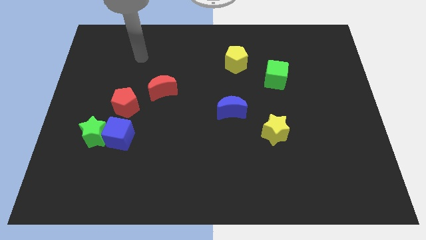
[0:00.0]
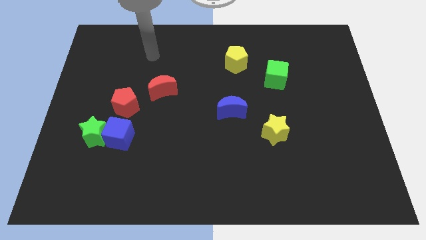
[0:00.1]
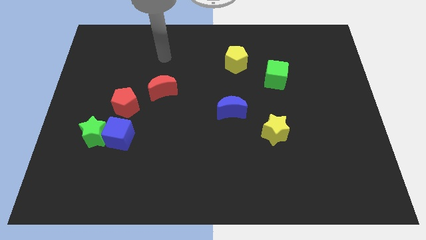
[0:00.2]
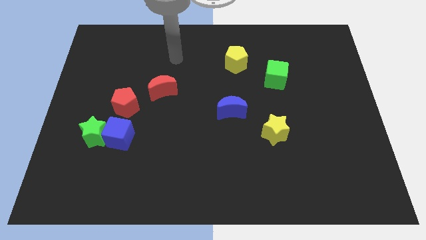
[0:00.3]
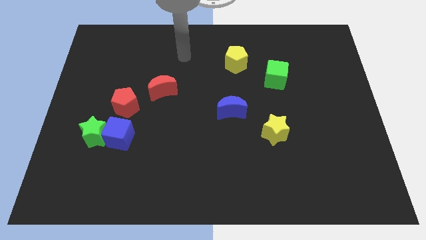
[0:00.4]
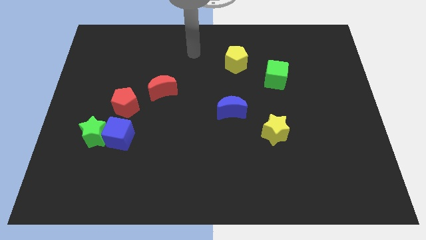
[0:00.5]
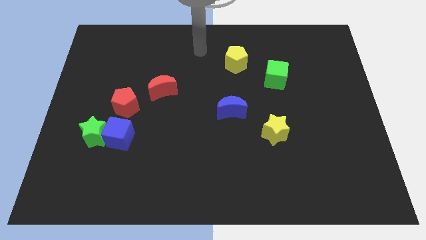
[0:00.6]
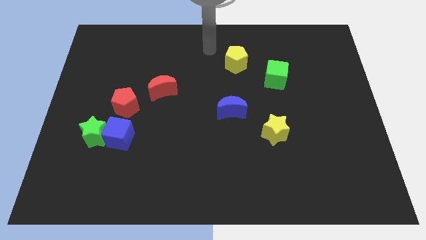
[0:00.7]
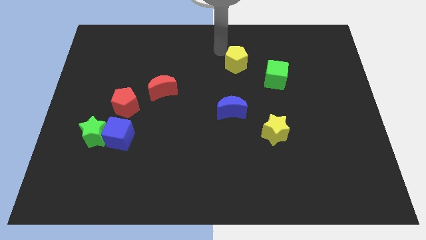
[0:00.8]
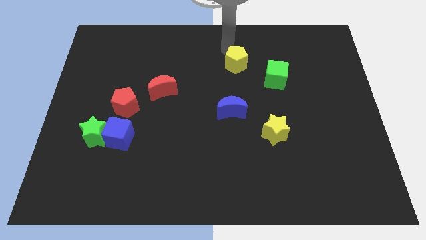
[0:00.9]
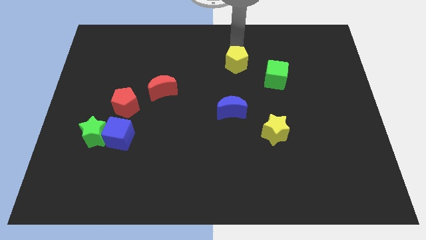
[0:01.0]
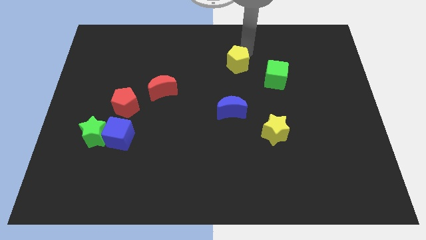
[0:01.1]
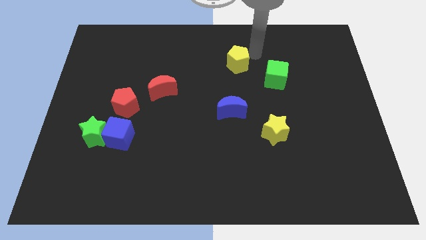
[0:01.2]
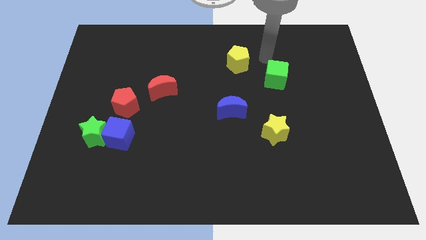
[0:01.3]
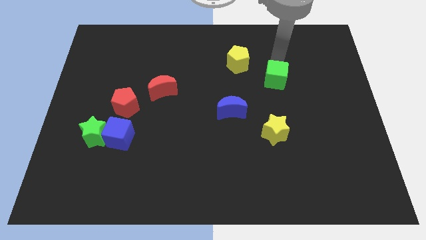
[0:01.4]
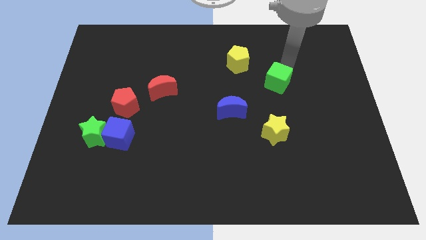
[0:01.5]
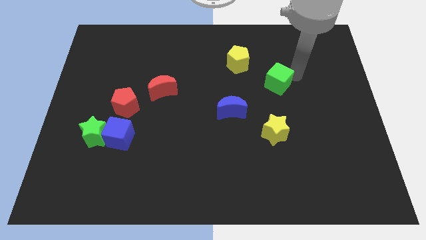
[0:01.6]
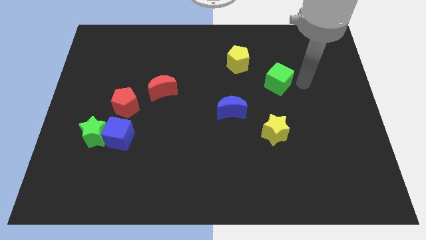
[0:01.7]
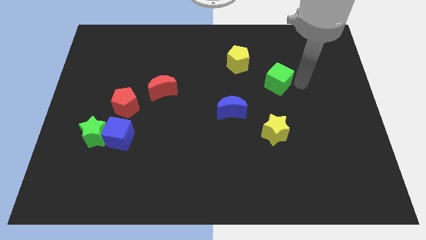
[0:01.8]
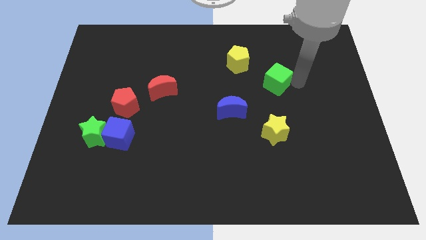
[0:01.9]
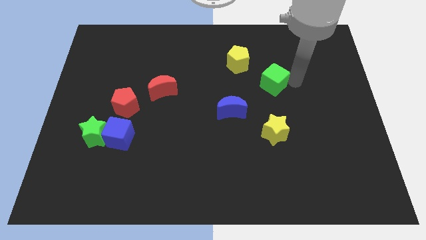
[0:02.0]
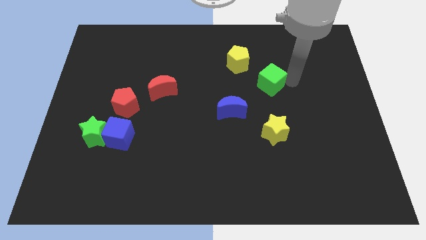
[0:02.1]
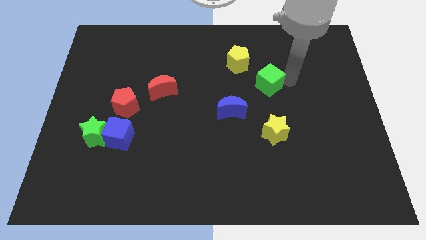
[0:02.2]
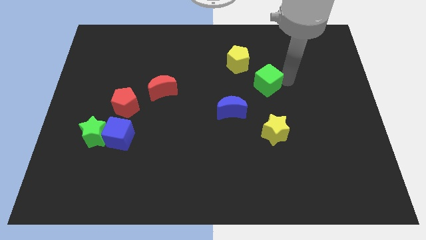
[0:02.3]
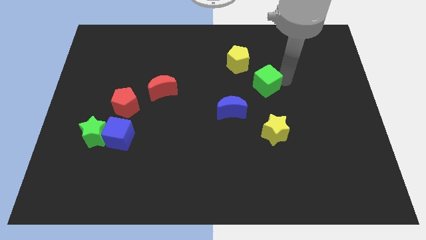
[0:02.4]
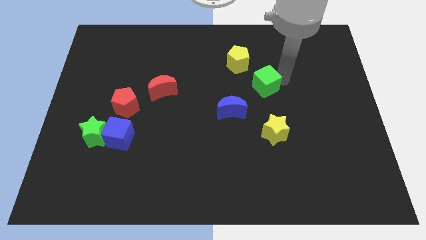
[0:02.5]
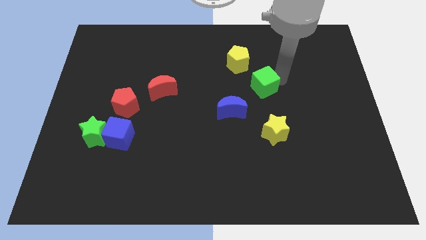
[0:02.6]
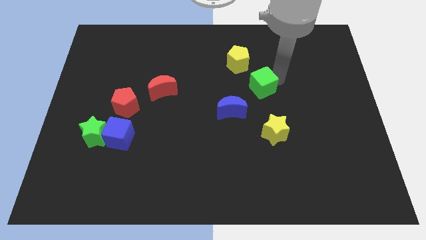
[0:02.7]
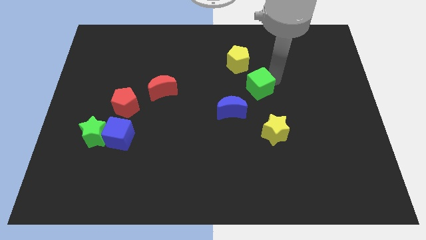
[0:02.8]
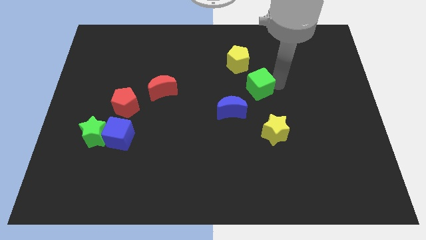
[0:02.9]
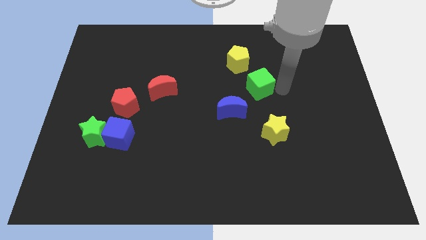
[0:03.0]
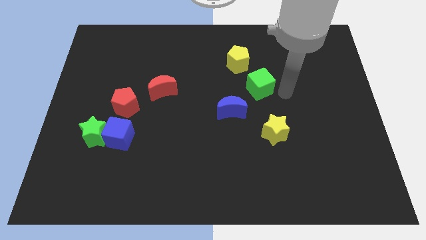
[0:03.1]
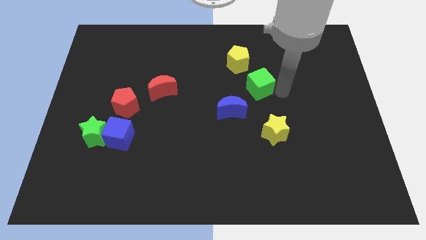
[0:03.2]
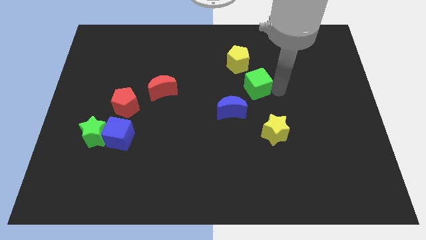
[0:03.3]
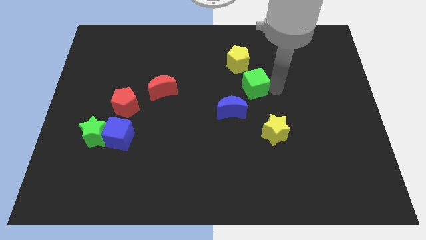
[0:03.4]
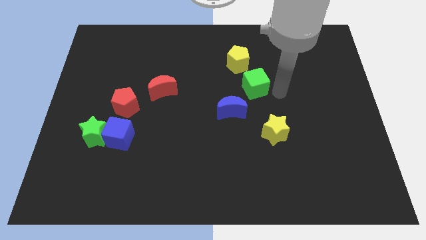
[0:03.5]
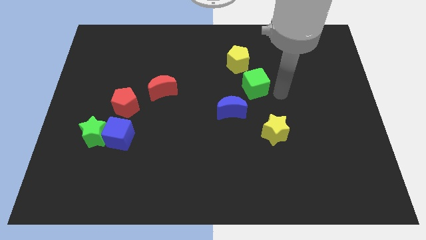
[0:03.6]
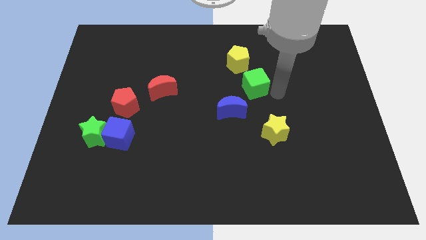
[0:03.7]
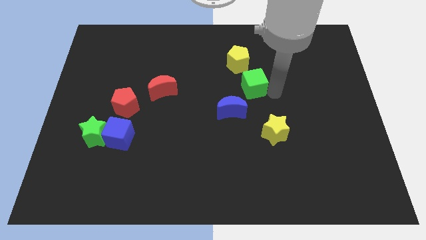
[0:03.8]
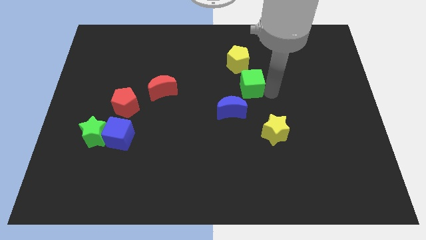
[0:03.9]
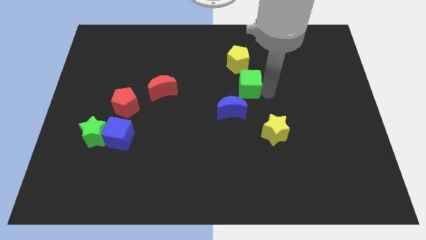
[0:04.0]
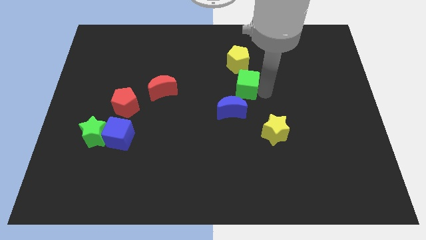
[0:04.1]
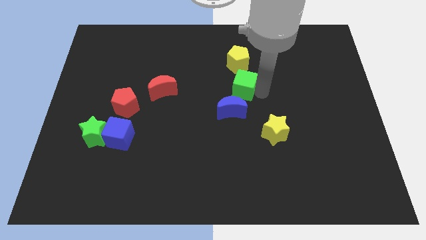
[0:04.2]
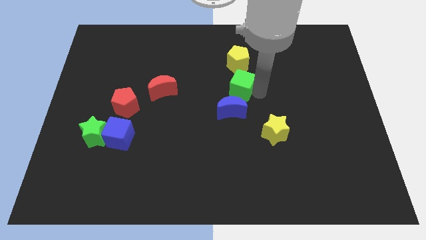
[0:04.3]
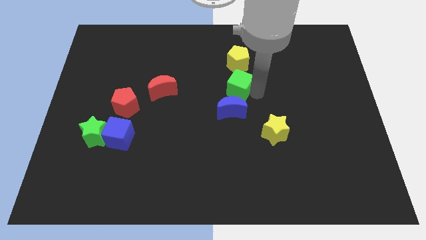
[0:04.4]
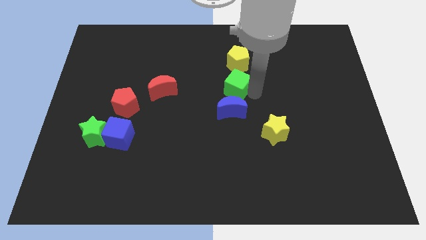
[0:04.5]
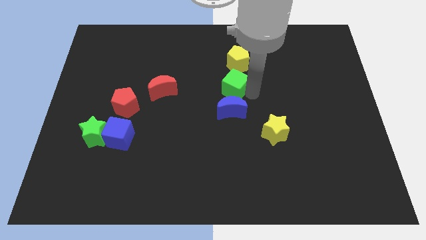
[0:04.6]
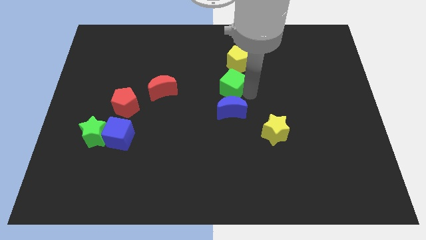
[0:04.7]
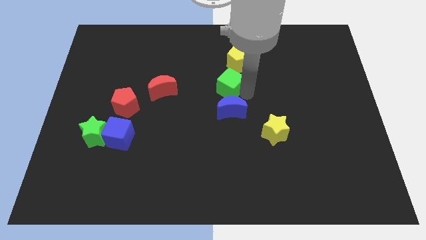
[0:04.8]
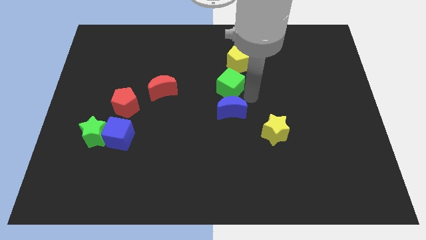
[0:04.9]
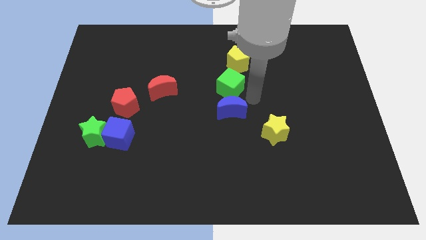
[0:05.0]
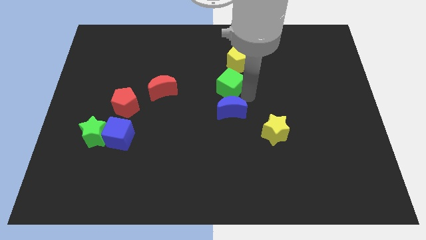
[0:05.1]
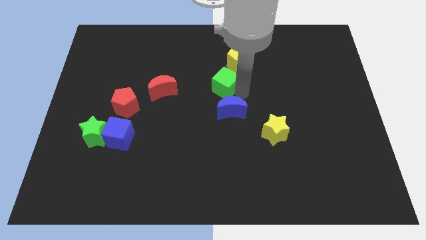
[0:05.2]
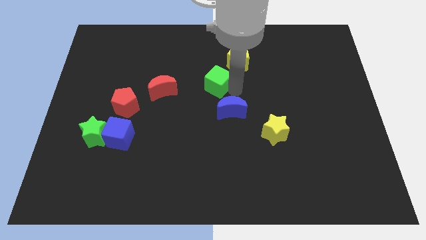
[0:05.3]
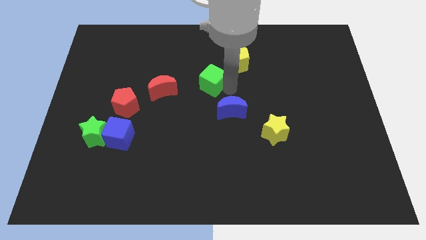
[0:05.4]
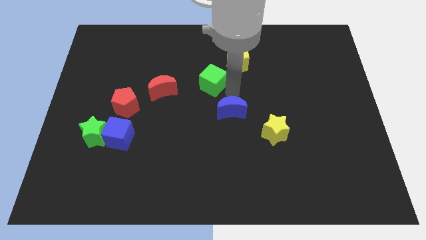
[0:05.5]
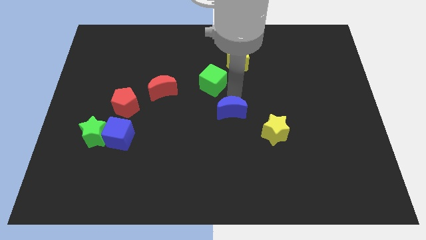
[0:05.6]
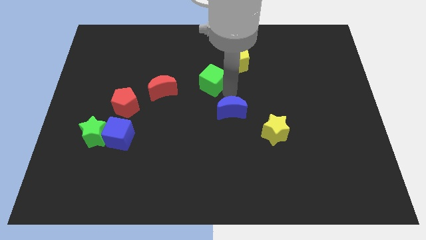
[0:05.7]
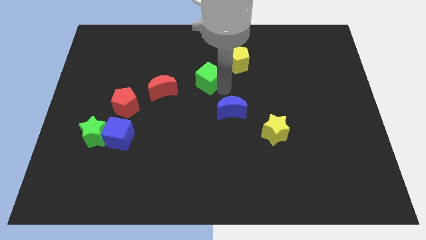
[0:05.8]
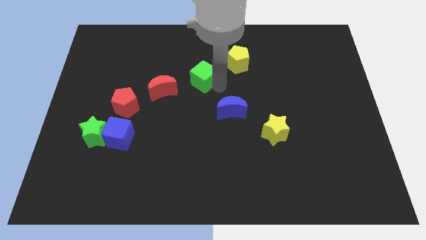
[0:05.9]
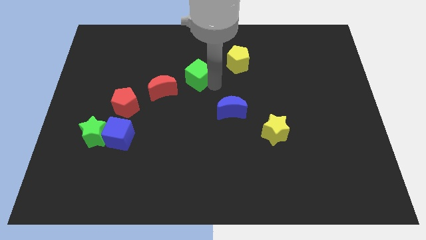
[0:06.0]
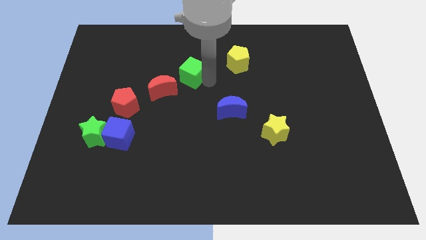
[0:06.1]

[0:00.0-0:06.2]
push the green cube to the left

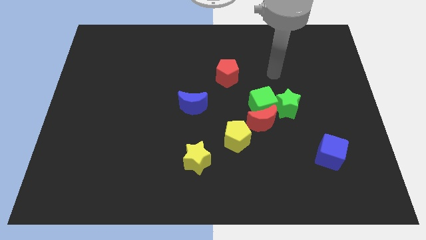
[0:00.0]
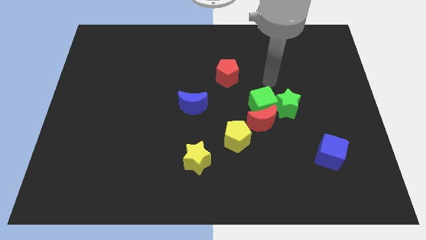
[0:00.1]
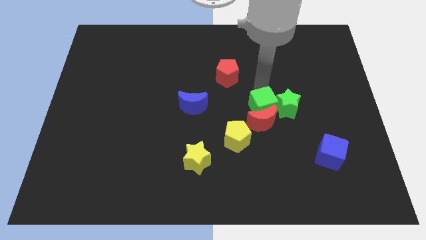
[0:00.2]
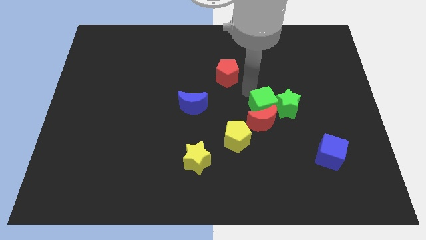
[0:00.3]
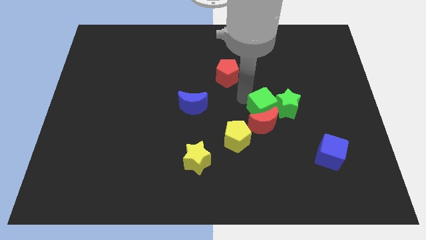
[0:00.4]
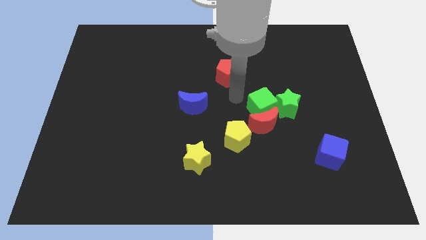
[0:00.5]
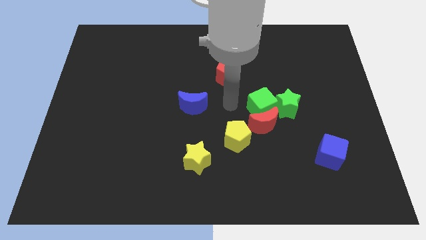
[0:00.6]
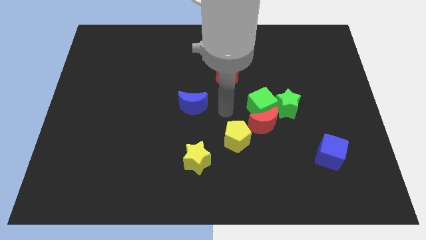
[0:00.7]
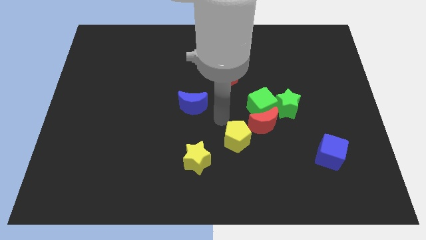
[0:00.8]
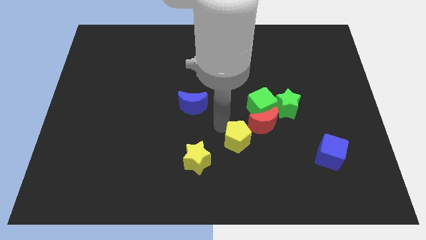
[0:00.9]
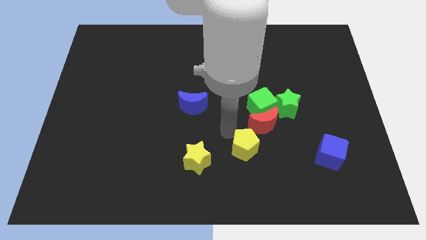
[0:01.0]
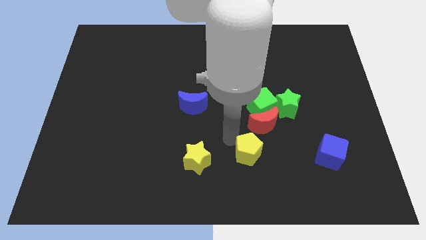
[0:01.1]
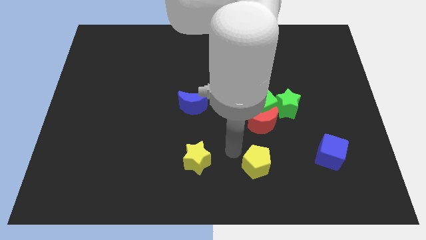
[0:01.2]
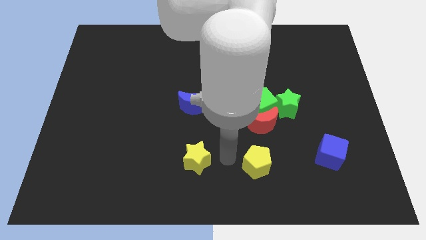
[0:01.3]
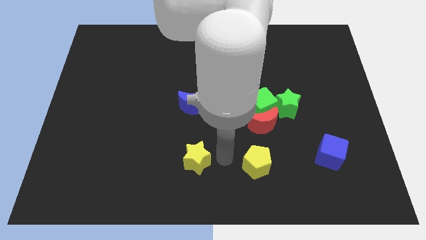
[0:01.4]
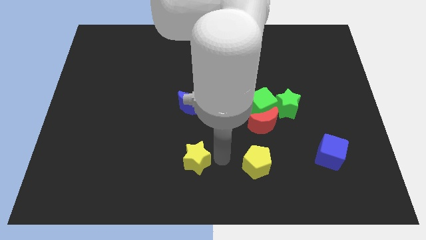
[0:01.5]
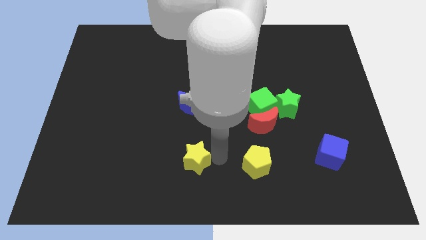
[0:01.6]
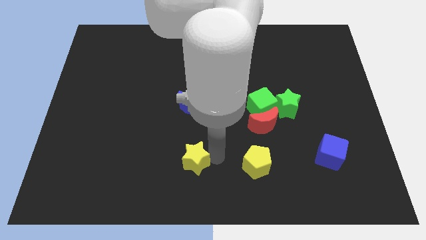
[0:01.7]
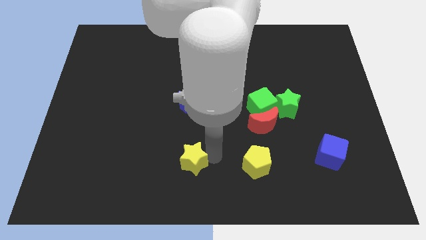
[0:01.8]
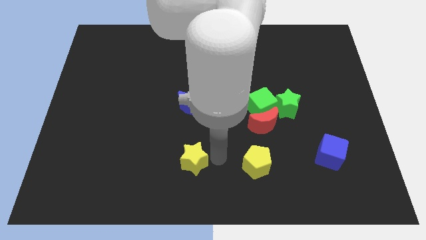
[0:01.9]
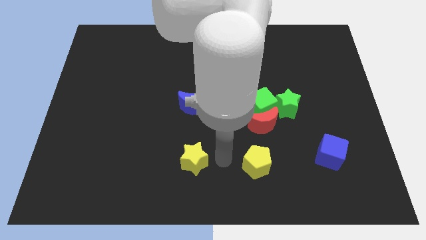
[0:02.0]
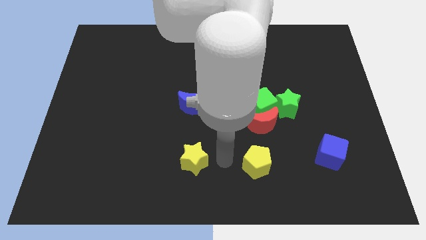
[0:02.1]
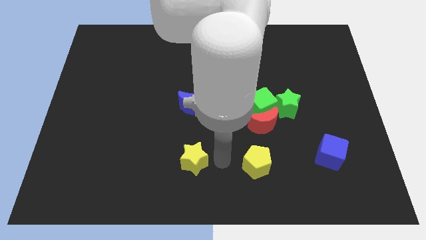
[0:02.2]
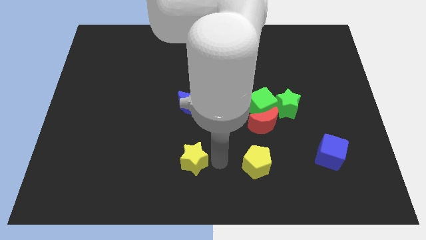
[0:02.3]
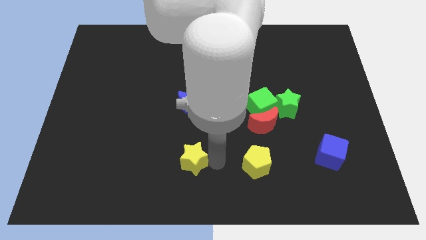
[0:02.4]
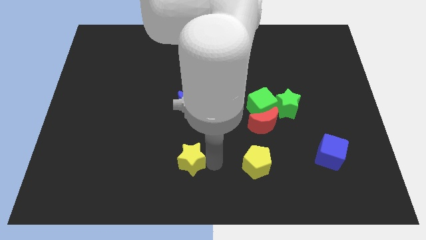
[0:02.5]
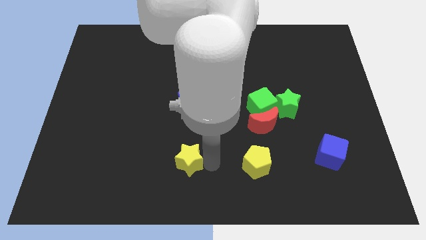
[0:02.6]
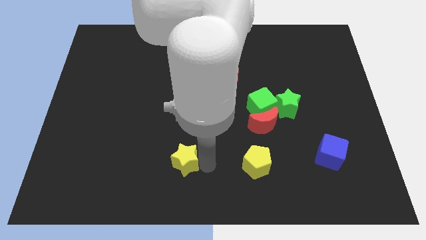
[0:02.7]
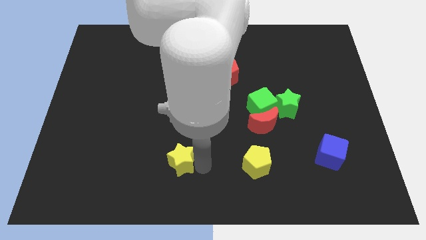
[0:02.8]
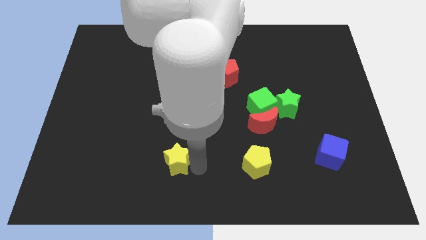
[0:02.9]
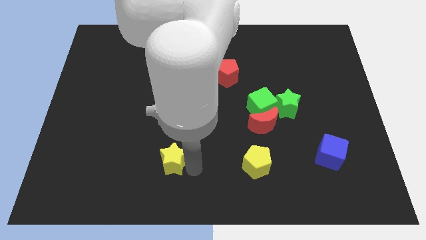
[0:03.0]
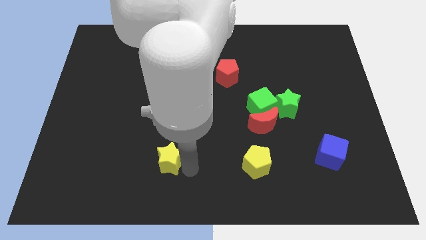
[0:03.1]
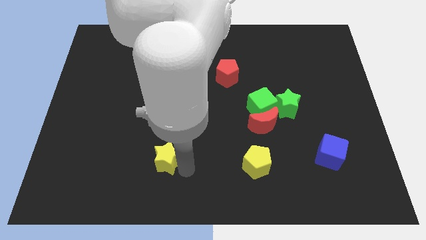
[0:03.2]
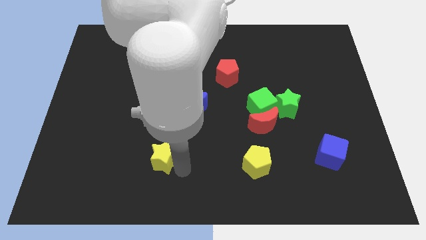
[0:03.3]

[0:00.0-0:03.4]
push the yellow star a bit to the left
